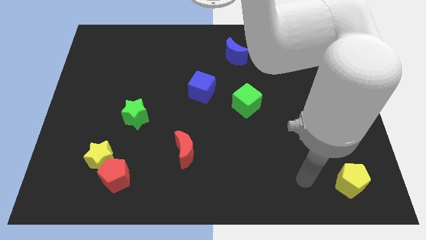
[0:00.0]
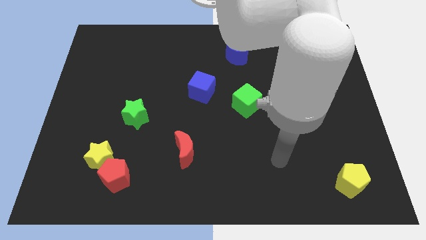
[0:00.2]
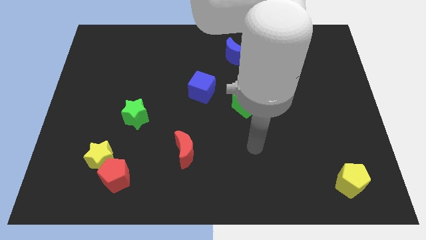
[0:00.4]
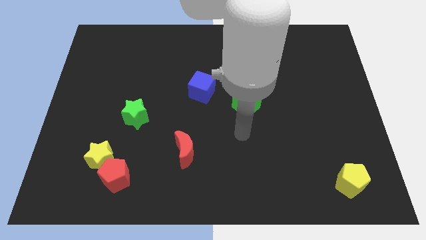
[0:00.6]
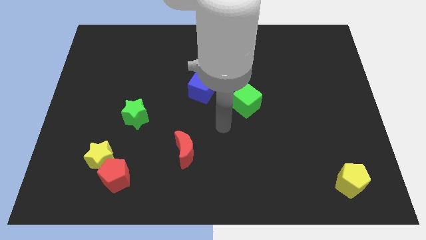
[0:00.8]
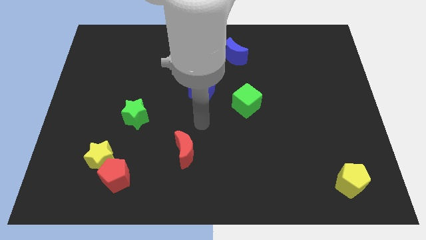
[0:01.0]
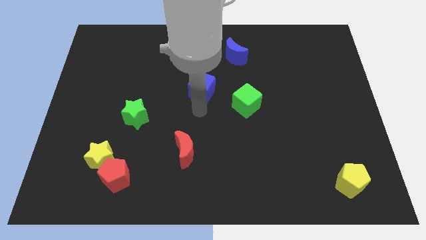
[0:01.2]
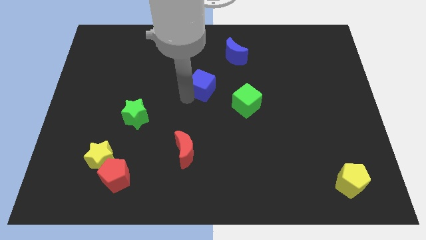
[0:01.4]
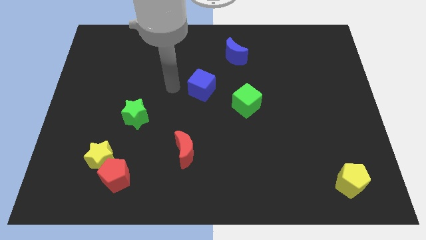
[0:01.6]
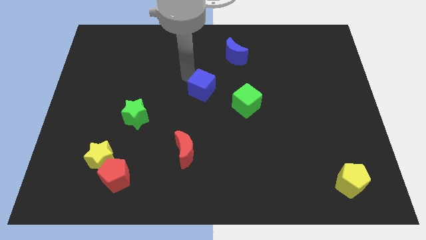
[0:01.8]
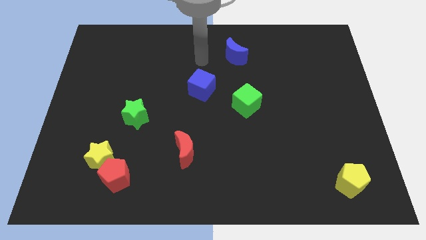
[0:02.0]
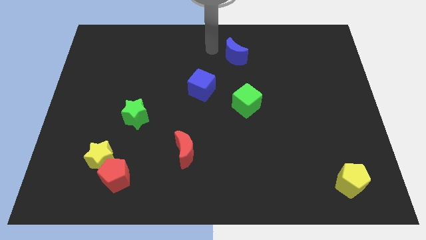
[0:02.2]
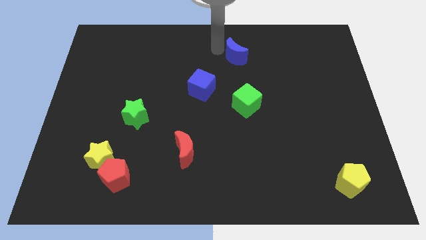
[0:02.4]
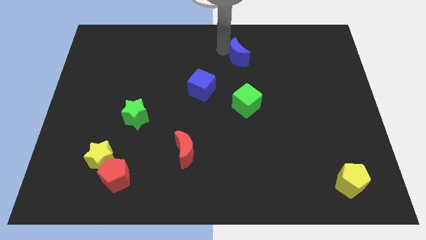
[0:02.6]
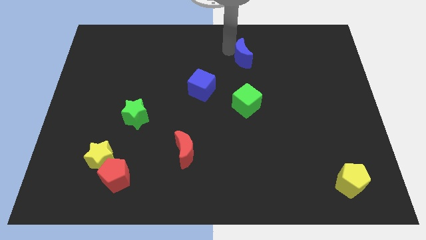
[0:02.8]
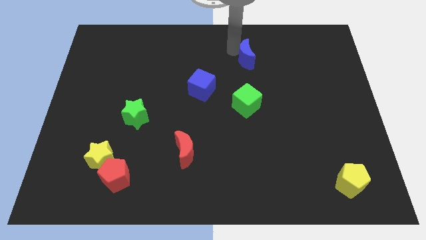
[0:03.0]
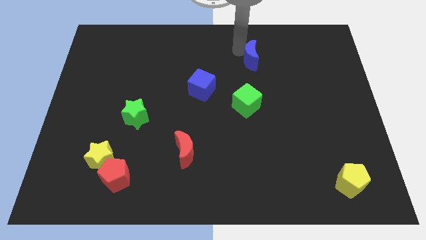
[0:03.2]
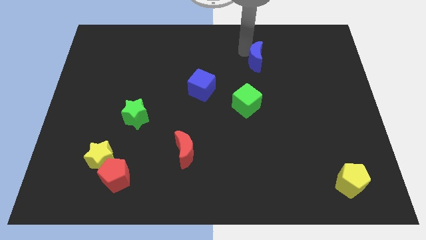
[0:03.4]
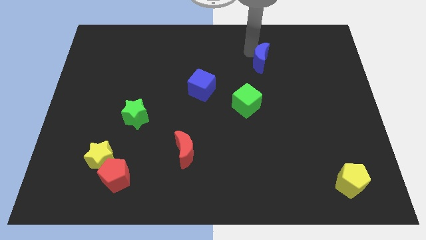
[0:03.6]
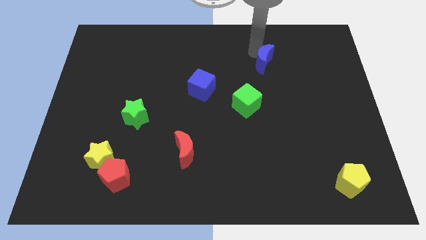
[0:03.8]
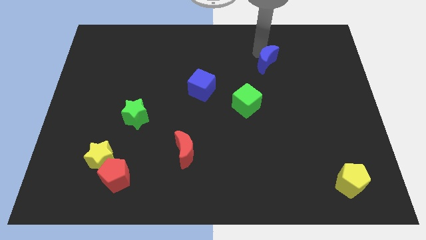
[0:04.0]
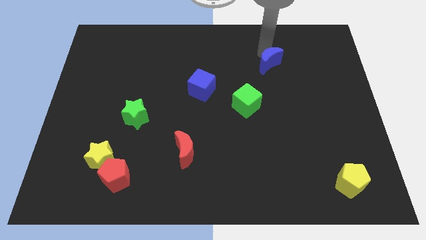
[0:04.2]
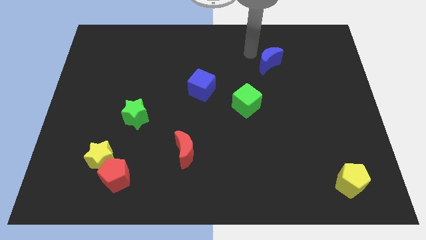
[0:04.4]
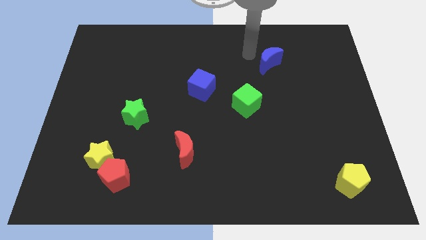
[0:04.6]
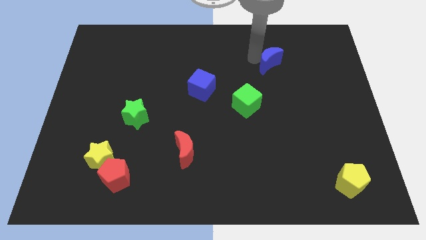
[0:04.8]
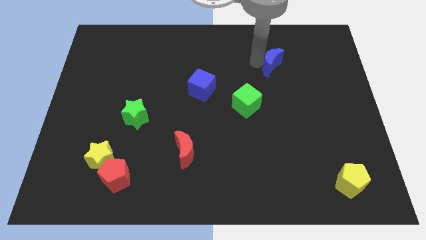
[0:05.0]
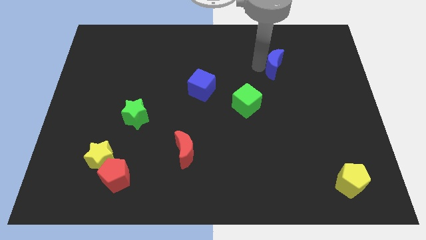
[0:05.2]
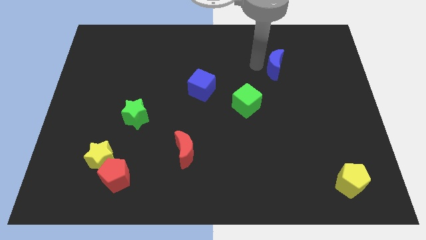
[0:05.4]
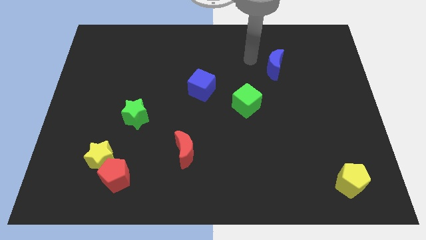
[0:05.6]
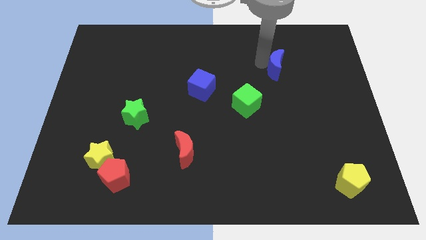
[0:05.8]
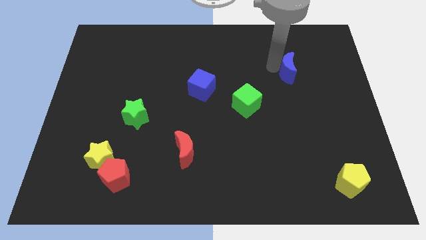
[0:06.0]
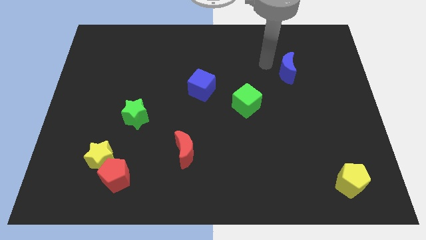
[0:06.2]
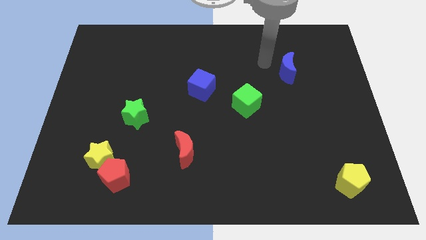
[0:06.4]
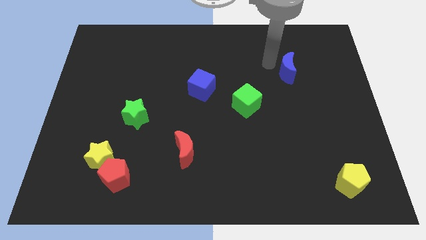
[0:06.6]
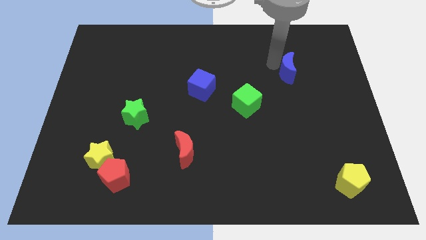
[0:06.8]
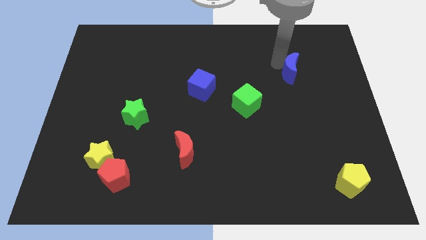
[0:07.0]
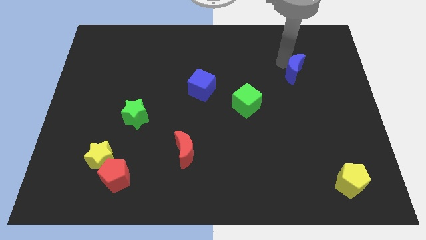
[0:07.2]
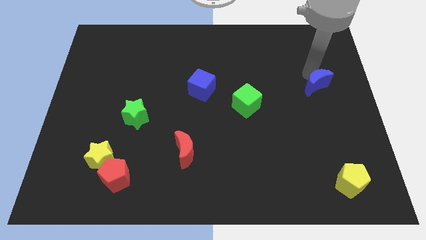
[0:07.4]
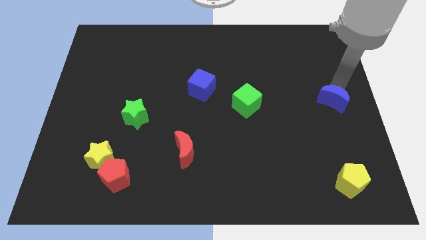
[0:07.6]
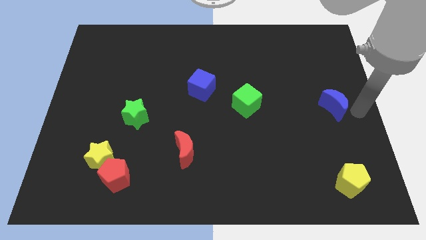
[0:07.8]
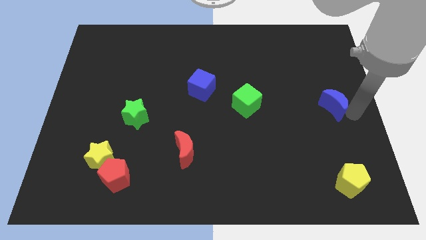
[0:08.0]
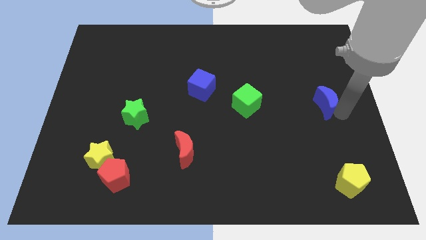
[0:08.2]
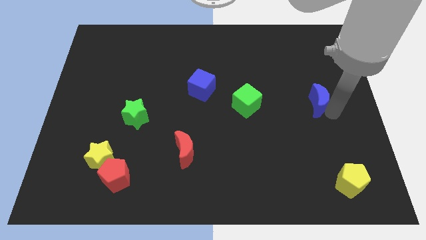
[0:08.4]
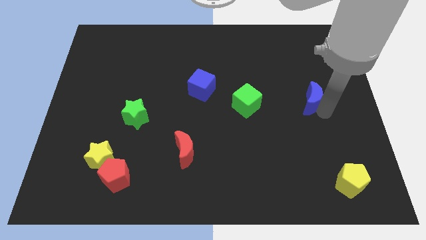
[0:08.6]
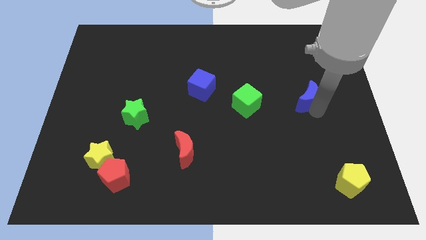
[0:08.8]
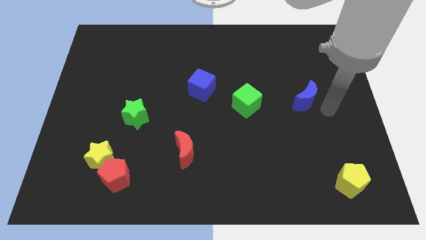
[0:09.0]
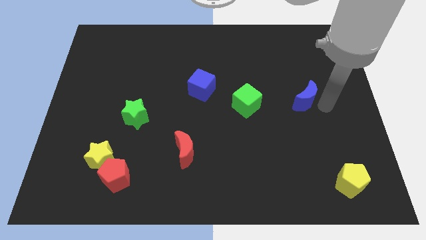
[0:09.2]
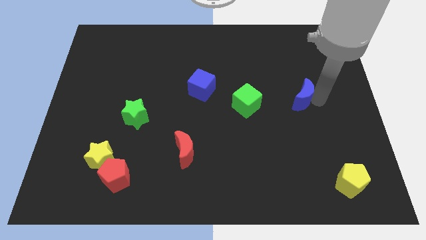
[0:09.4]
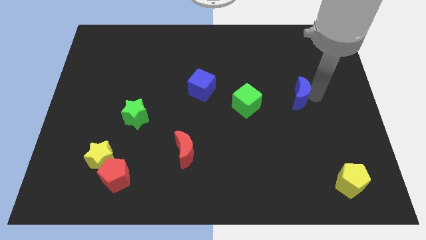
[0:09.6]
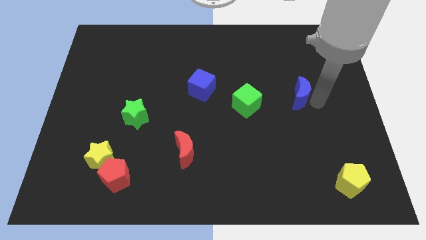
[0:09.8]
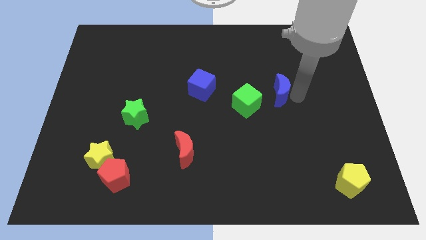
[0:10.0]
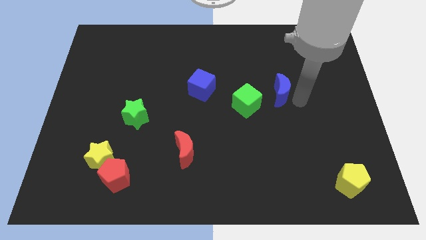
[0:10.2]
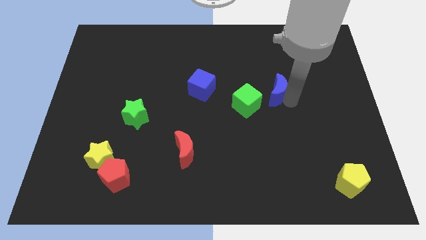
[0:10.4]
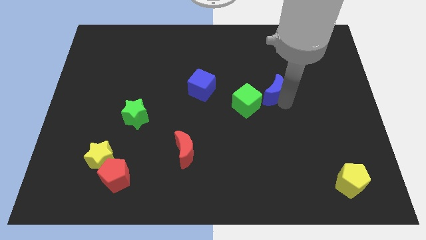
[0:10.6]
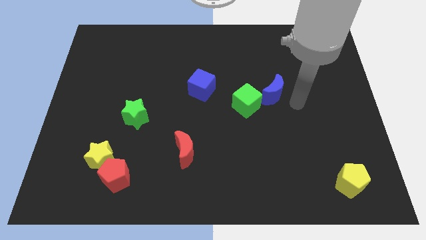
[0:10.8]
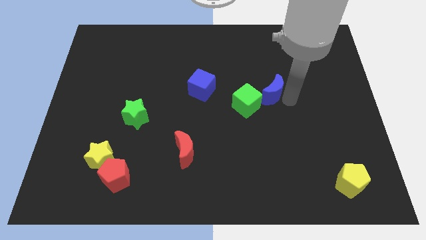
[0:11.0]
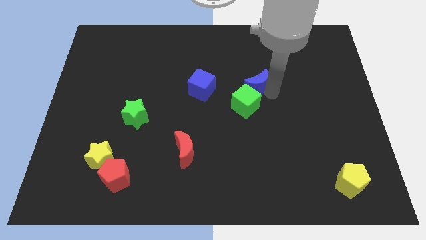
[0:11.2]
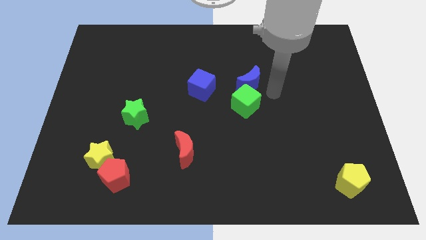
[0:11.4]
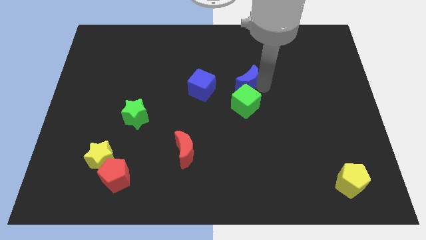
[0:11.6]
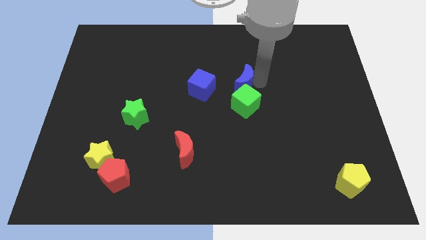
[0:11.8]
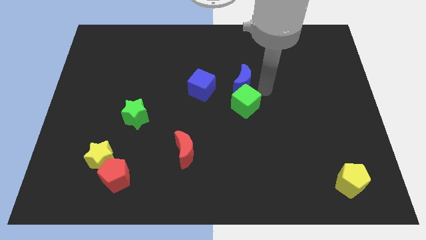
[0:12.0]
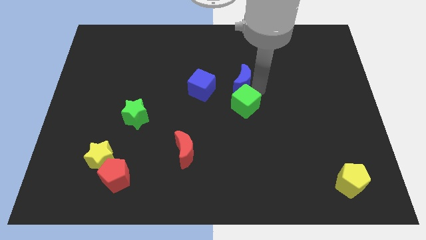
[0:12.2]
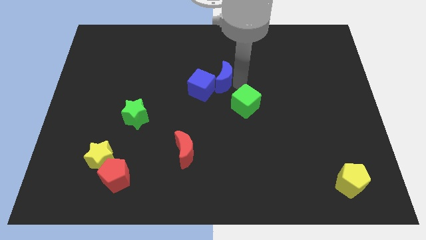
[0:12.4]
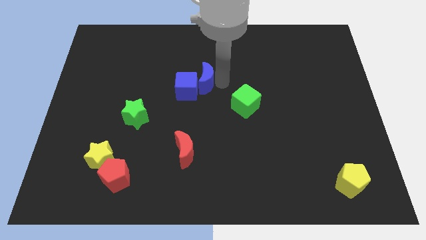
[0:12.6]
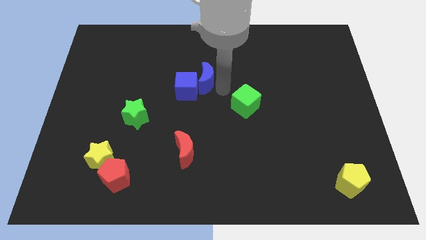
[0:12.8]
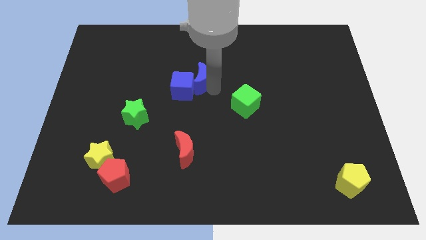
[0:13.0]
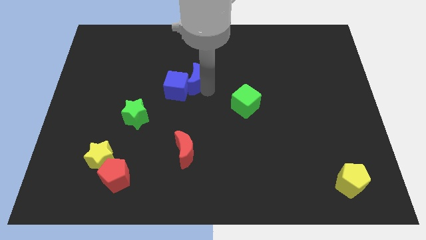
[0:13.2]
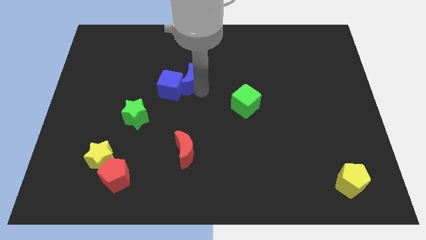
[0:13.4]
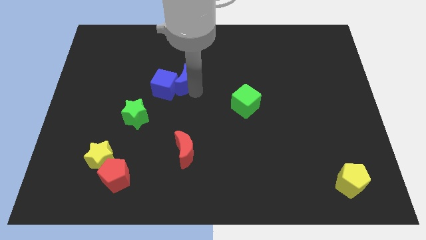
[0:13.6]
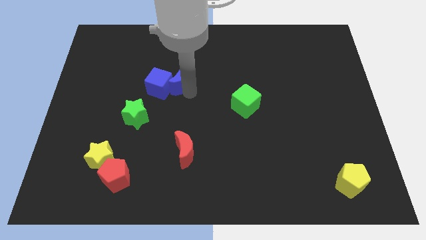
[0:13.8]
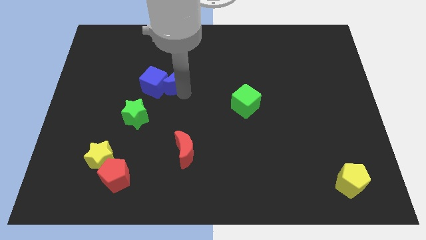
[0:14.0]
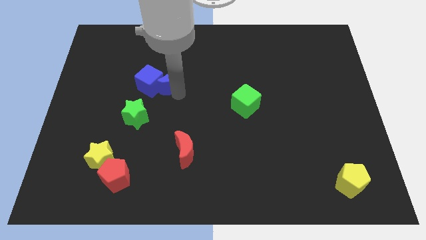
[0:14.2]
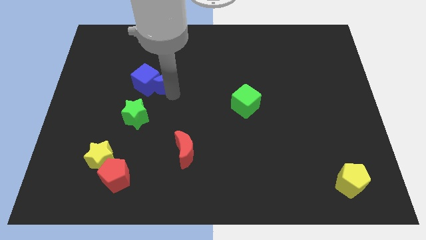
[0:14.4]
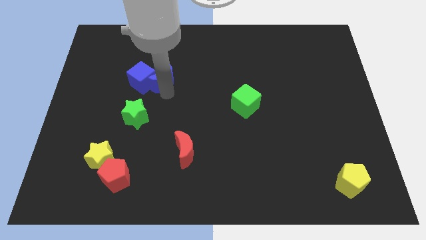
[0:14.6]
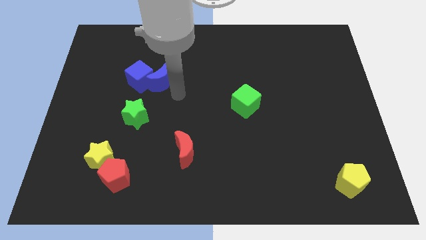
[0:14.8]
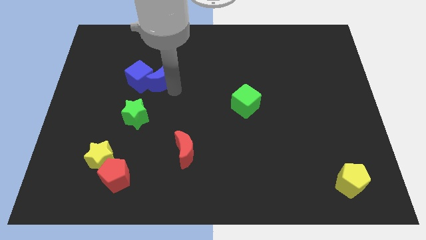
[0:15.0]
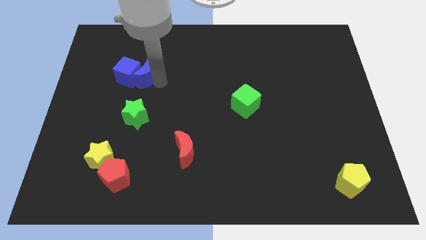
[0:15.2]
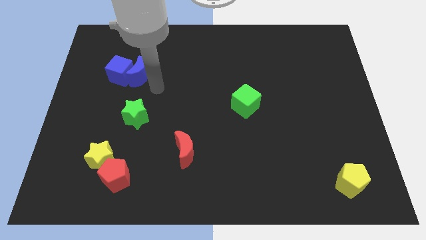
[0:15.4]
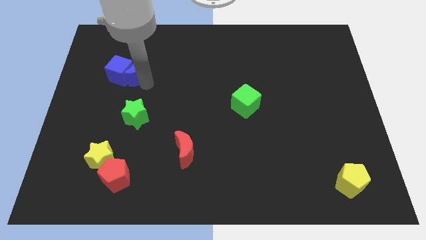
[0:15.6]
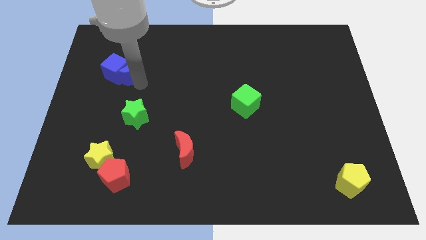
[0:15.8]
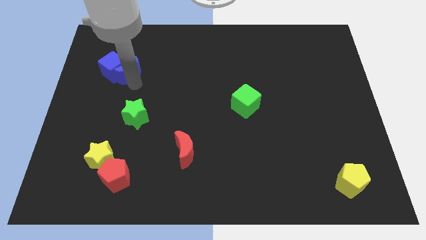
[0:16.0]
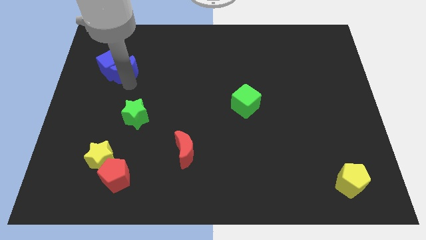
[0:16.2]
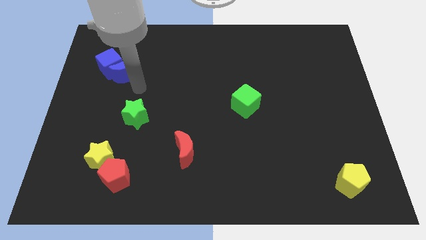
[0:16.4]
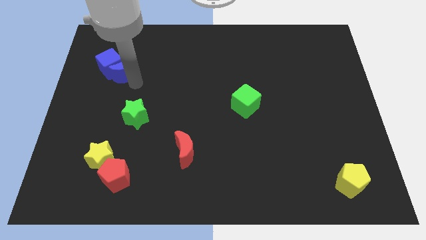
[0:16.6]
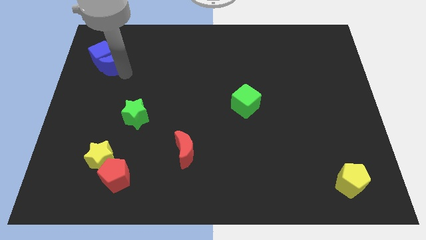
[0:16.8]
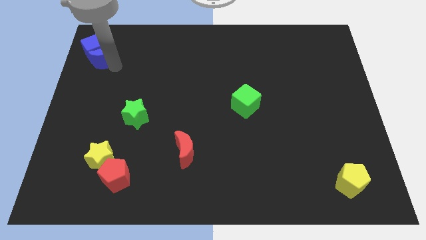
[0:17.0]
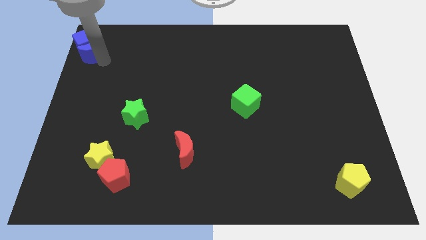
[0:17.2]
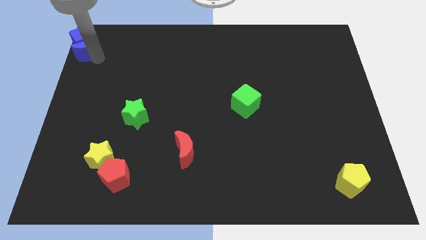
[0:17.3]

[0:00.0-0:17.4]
put the blue moon to the top left corner
